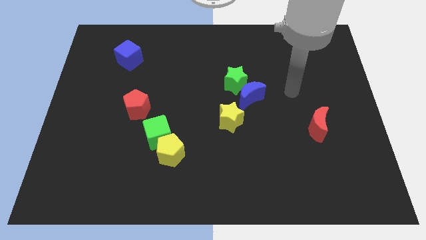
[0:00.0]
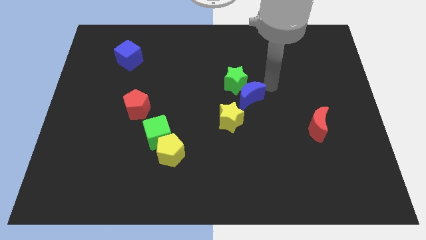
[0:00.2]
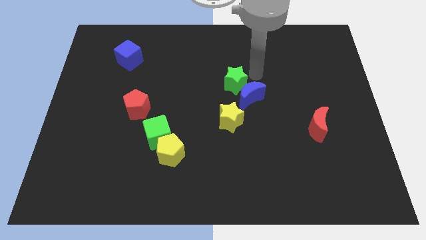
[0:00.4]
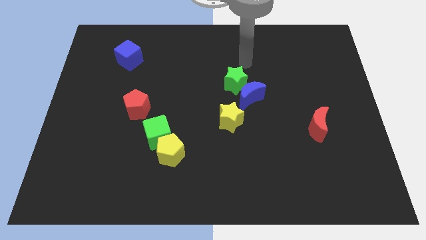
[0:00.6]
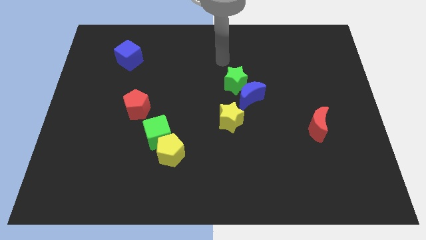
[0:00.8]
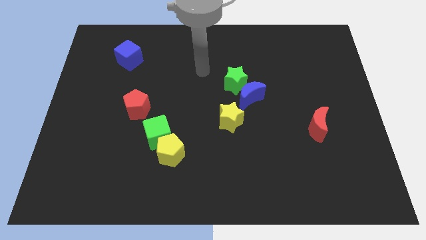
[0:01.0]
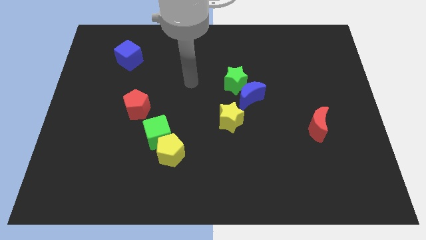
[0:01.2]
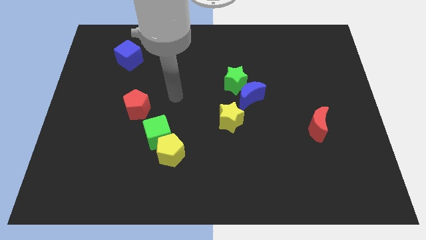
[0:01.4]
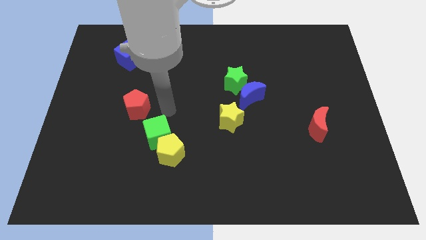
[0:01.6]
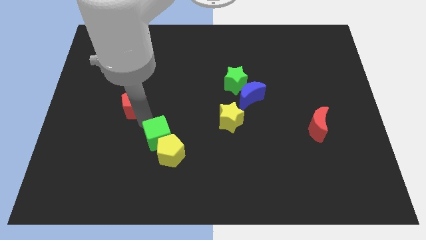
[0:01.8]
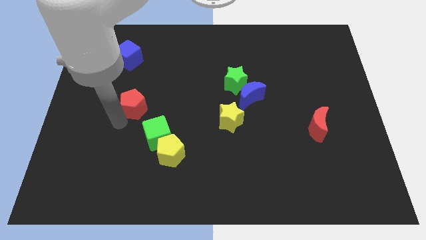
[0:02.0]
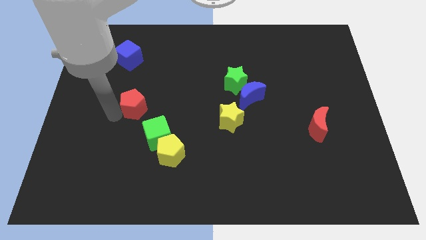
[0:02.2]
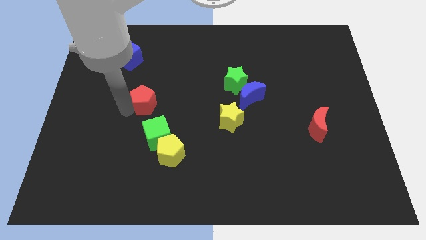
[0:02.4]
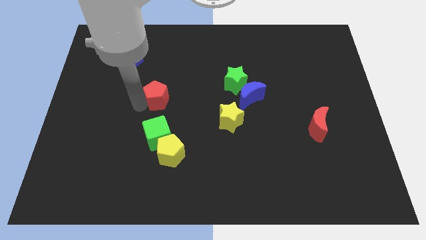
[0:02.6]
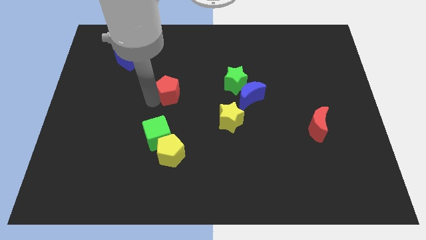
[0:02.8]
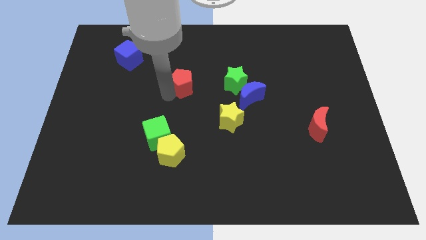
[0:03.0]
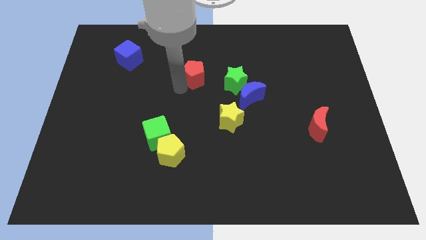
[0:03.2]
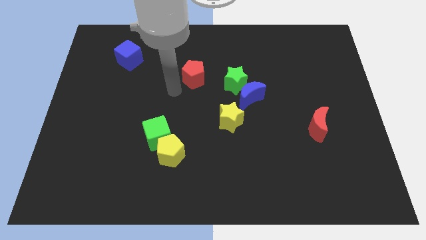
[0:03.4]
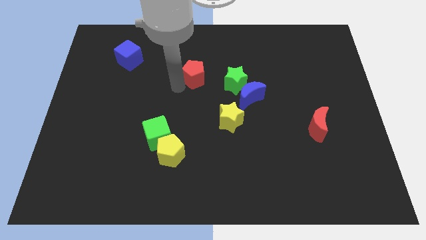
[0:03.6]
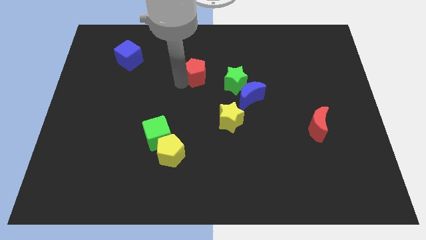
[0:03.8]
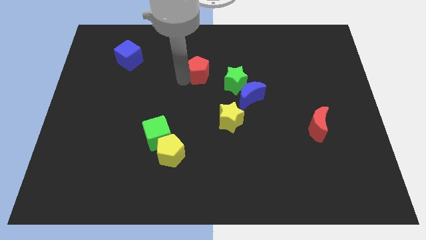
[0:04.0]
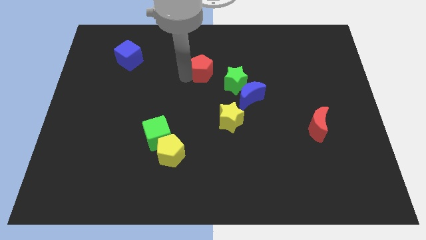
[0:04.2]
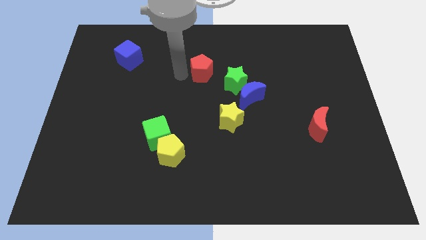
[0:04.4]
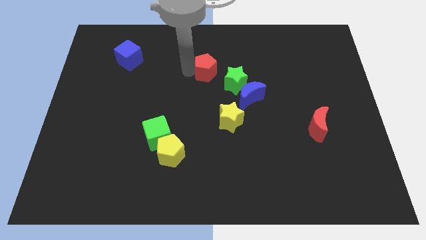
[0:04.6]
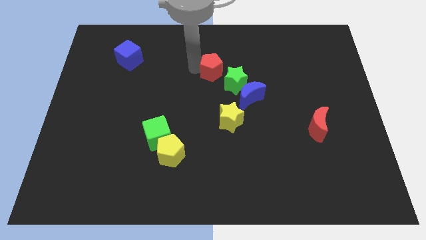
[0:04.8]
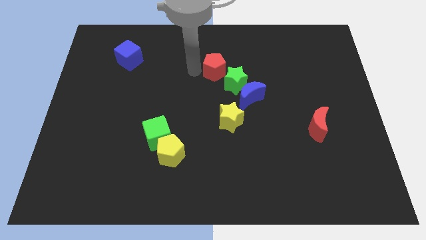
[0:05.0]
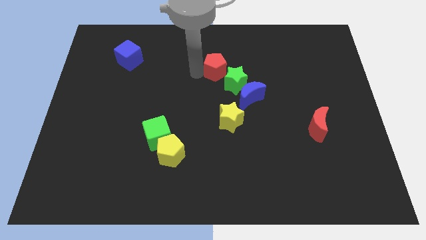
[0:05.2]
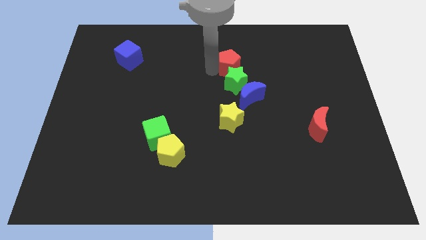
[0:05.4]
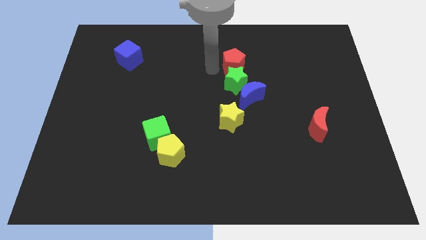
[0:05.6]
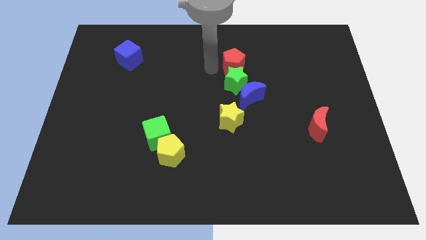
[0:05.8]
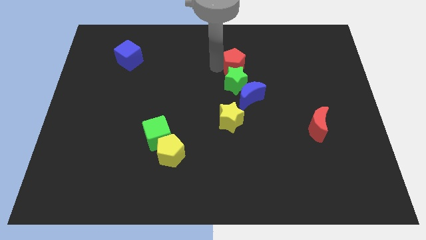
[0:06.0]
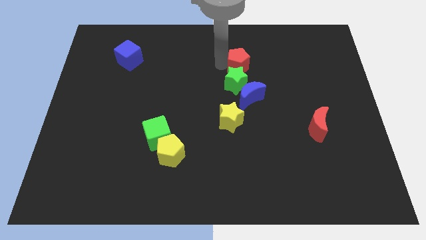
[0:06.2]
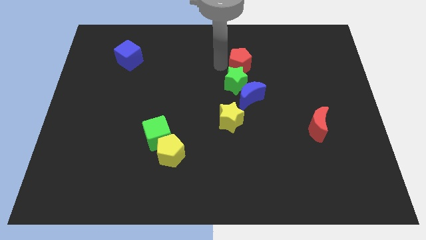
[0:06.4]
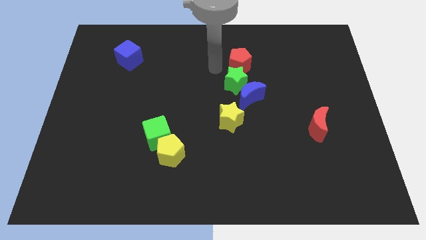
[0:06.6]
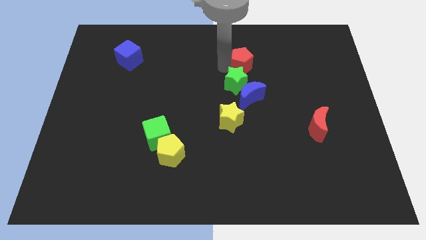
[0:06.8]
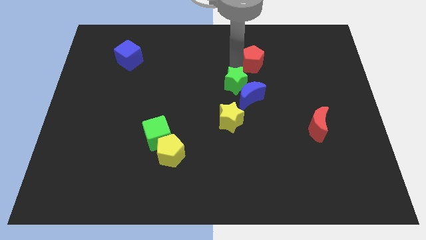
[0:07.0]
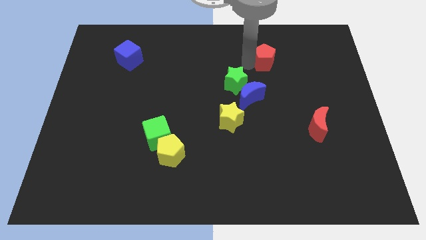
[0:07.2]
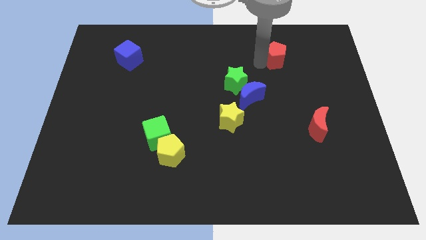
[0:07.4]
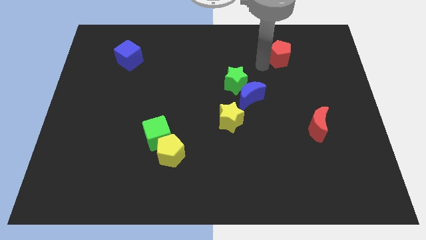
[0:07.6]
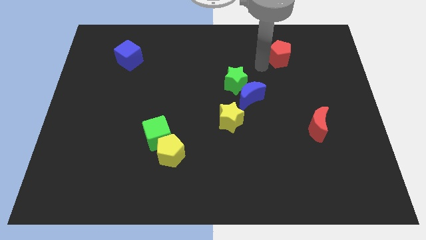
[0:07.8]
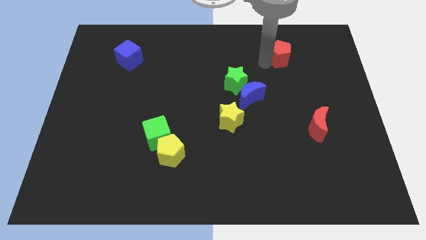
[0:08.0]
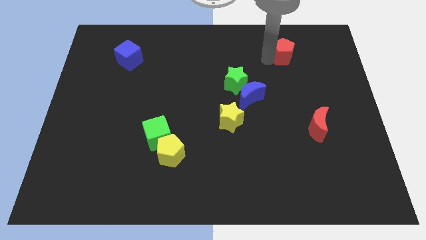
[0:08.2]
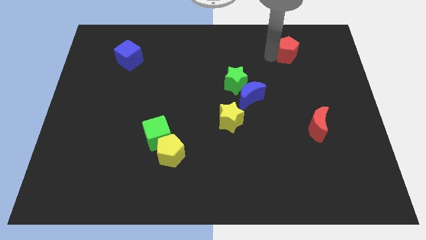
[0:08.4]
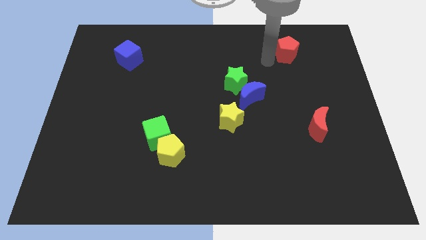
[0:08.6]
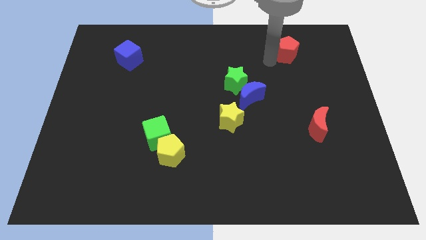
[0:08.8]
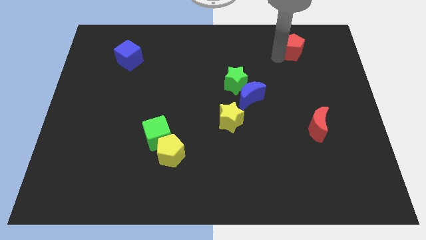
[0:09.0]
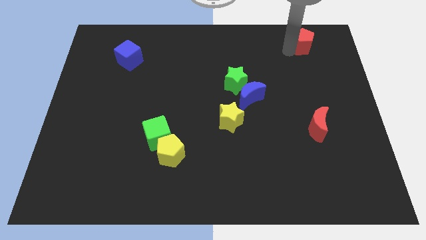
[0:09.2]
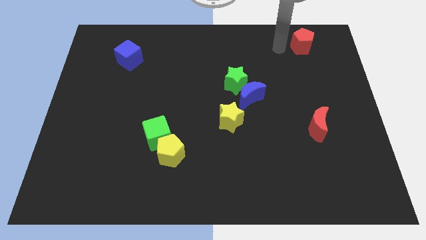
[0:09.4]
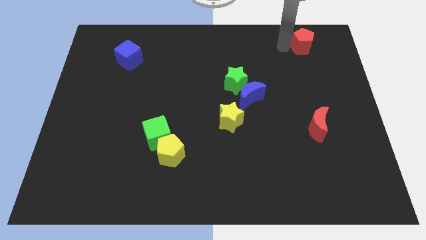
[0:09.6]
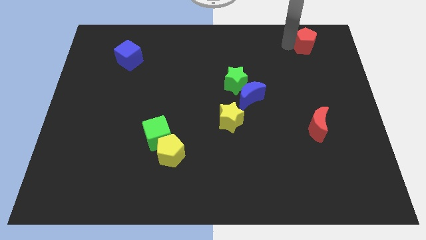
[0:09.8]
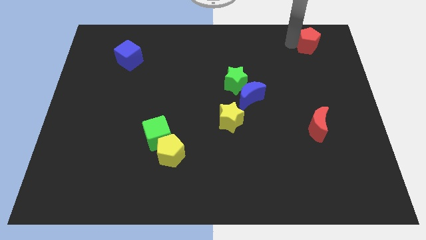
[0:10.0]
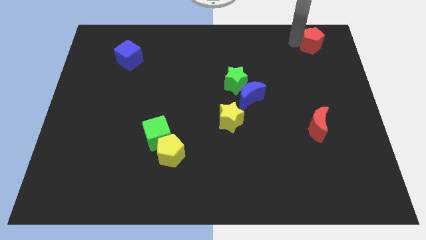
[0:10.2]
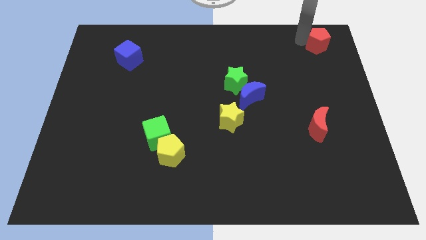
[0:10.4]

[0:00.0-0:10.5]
put the red pentagon to the top right corner

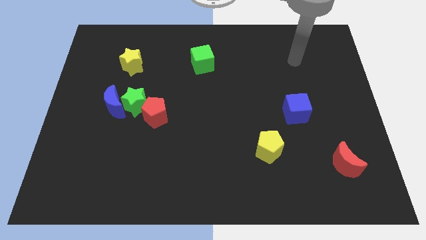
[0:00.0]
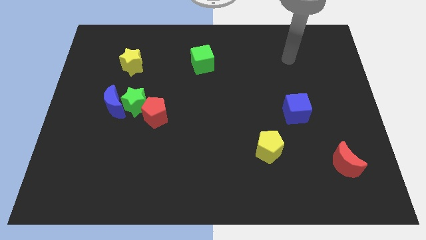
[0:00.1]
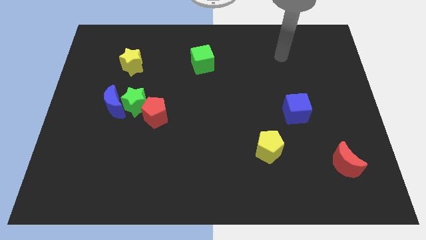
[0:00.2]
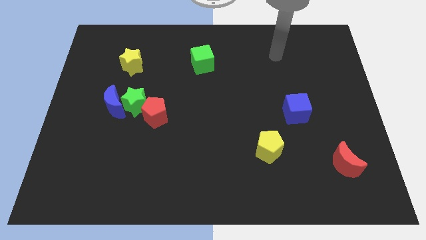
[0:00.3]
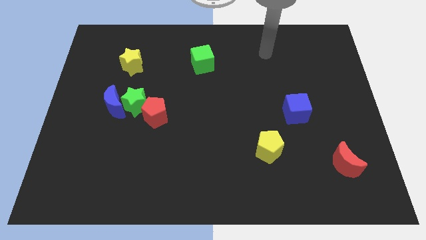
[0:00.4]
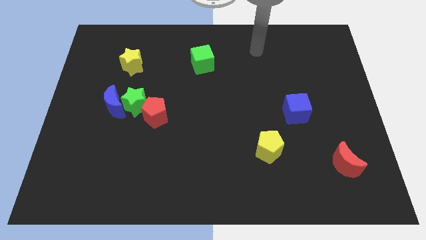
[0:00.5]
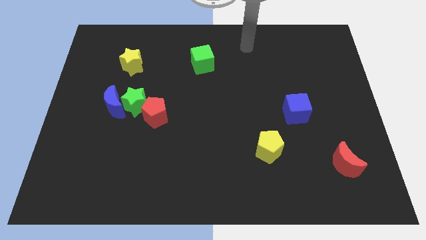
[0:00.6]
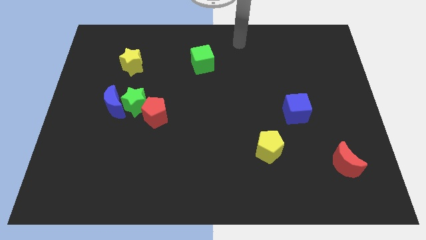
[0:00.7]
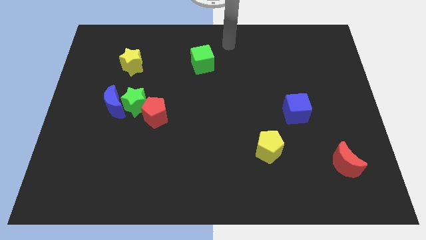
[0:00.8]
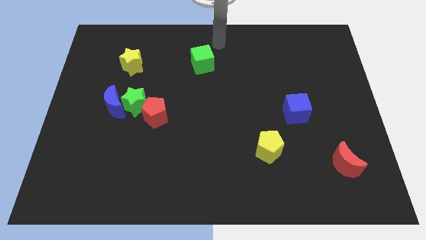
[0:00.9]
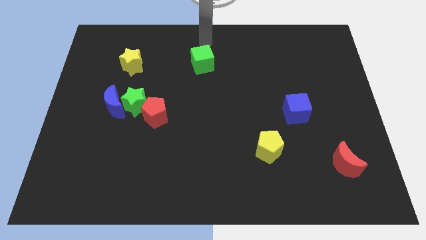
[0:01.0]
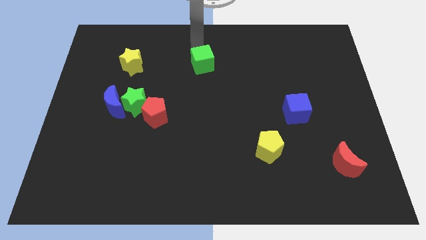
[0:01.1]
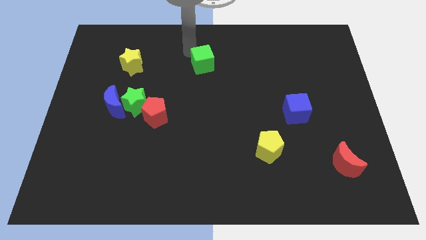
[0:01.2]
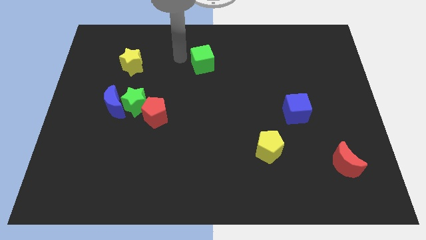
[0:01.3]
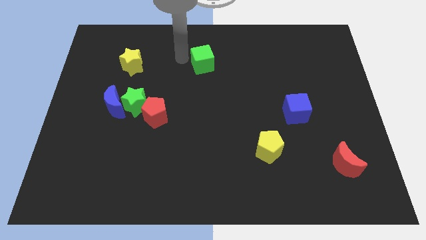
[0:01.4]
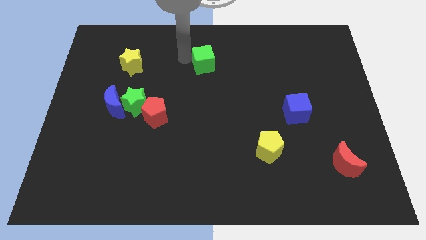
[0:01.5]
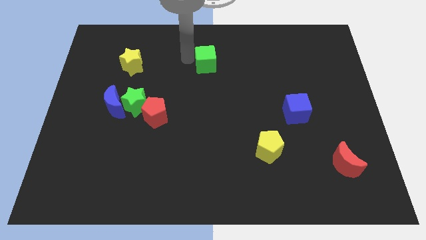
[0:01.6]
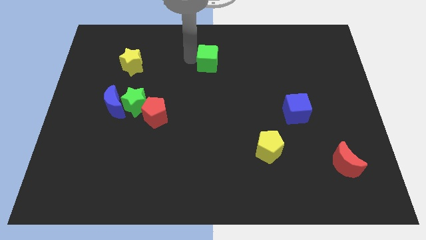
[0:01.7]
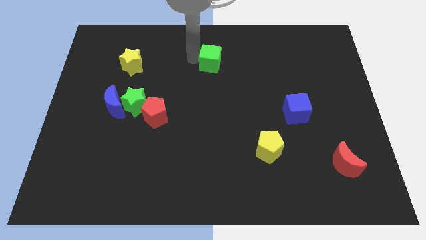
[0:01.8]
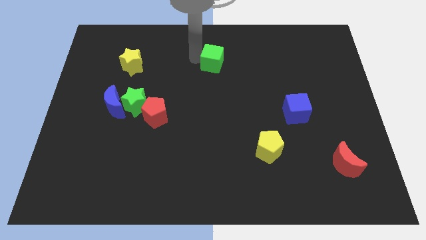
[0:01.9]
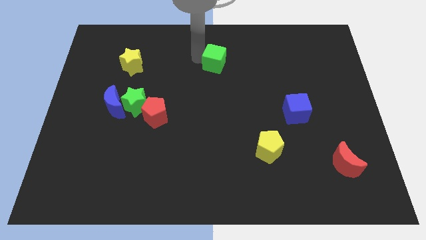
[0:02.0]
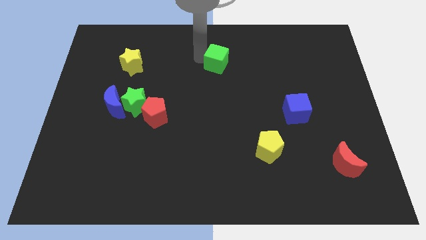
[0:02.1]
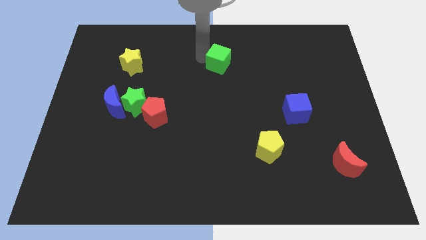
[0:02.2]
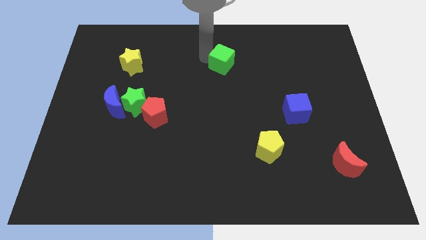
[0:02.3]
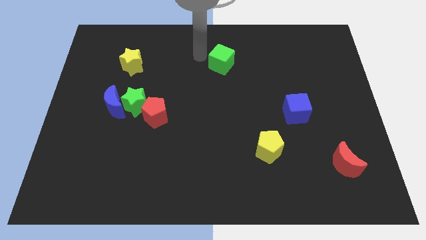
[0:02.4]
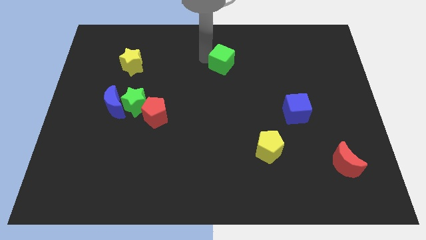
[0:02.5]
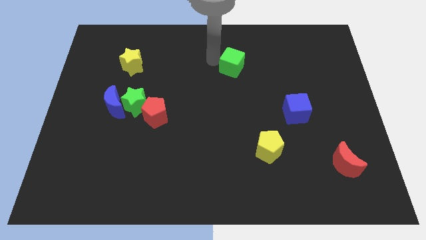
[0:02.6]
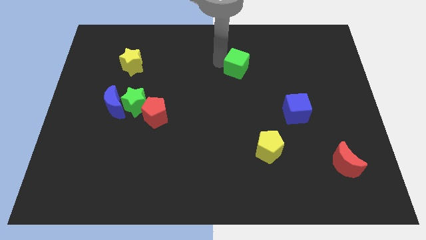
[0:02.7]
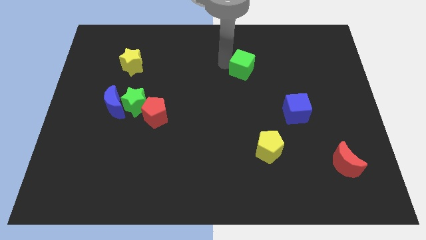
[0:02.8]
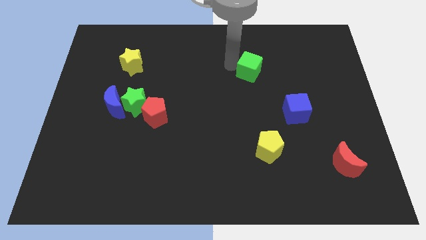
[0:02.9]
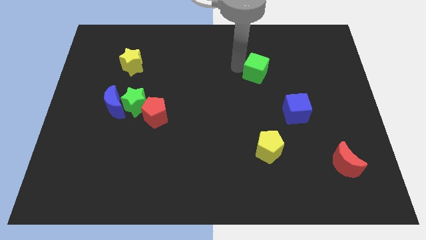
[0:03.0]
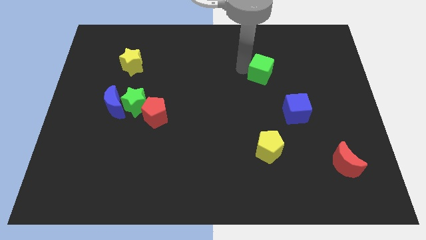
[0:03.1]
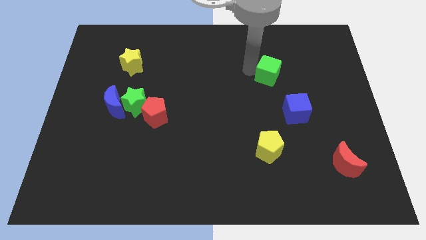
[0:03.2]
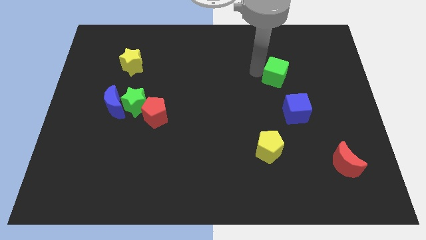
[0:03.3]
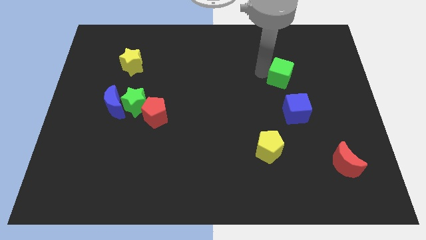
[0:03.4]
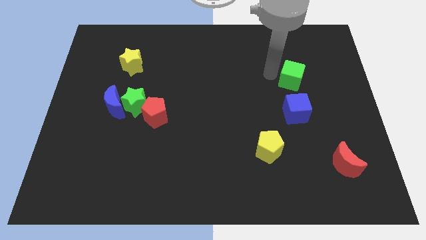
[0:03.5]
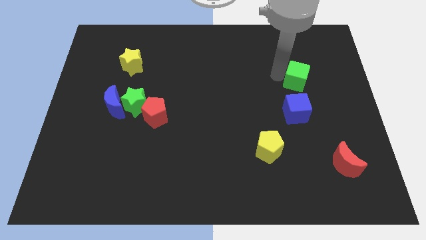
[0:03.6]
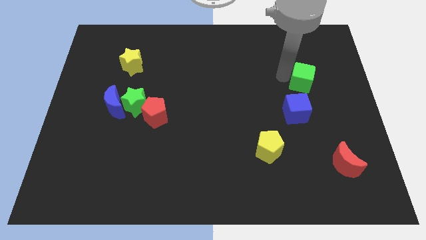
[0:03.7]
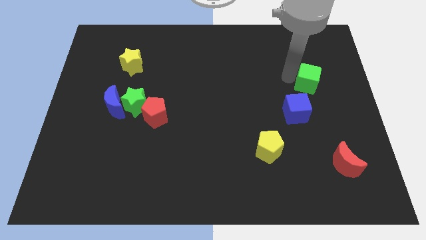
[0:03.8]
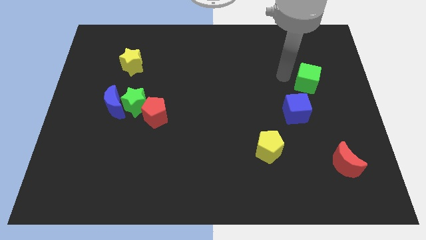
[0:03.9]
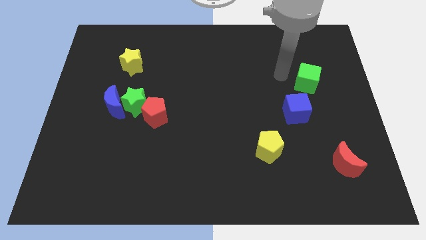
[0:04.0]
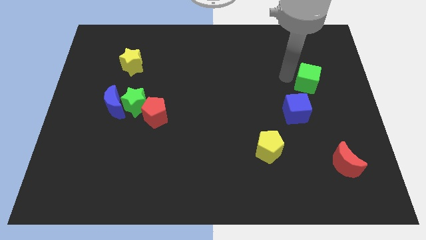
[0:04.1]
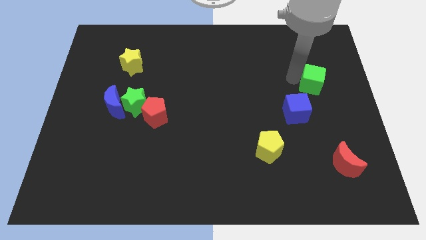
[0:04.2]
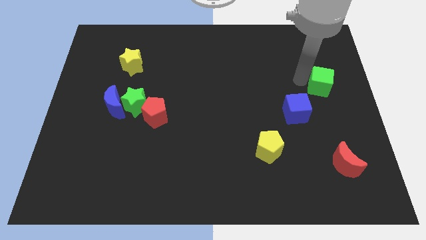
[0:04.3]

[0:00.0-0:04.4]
move the green cube to the right side of the board
